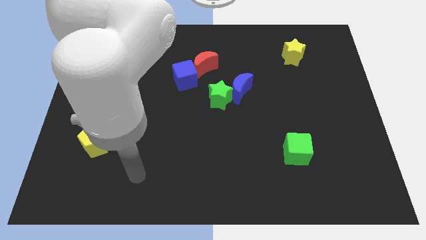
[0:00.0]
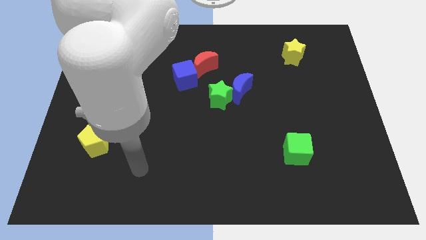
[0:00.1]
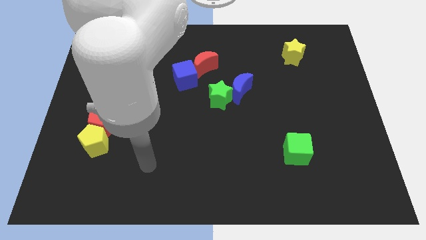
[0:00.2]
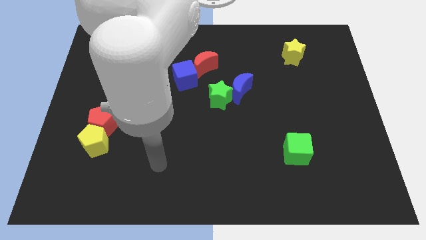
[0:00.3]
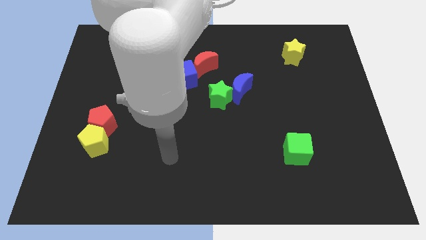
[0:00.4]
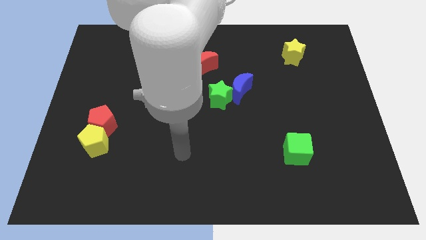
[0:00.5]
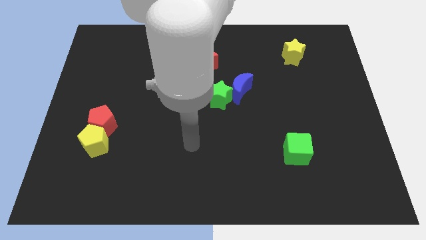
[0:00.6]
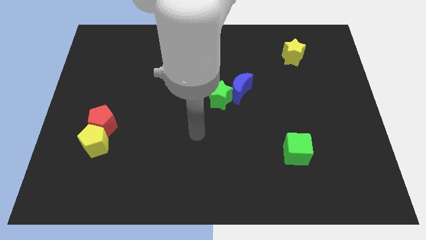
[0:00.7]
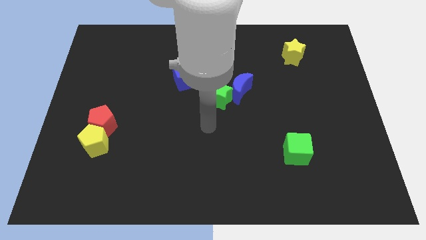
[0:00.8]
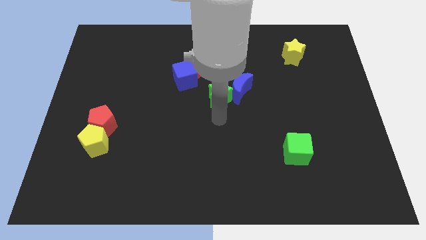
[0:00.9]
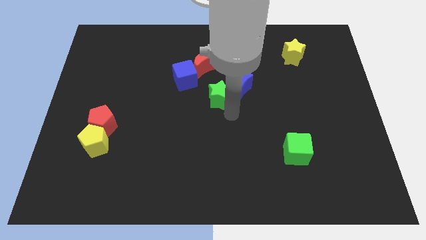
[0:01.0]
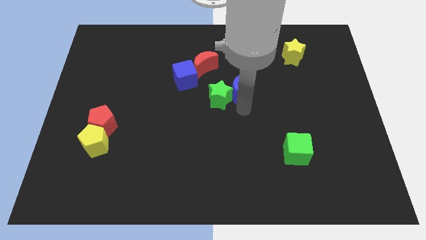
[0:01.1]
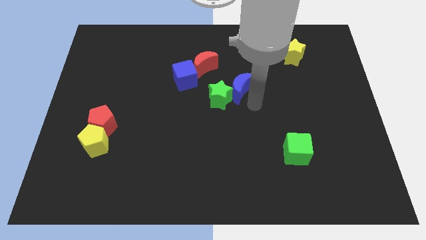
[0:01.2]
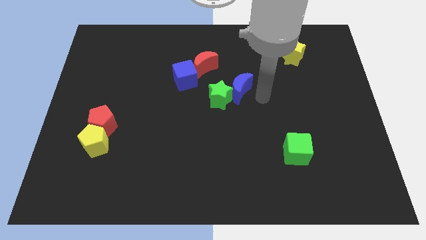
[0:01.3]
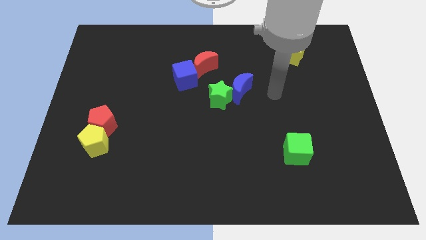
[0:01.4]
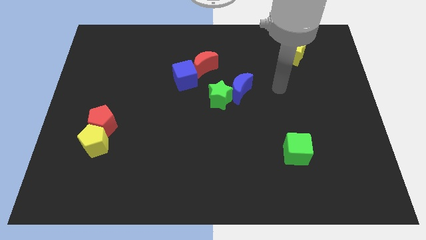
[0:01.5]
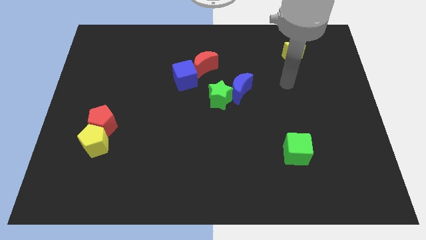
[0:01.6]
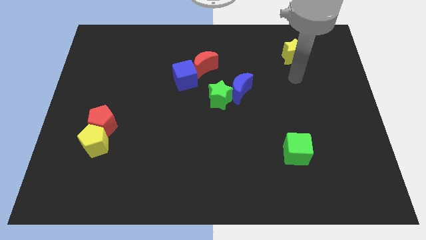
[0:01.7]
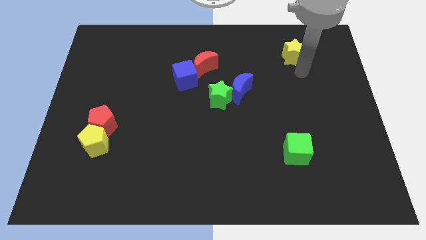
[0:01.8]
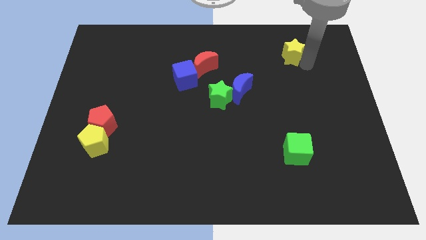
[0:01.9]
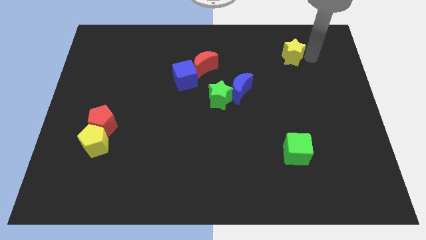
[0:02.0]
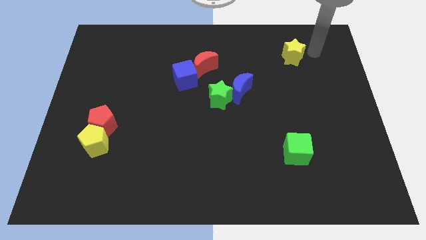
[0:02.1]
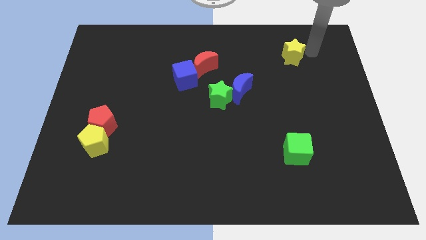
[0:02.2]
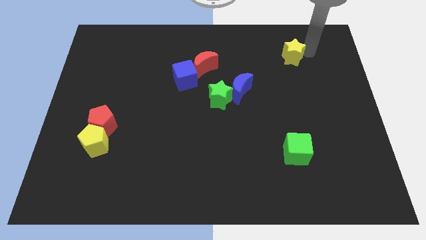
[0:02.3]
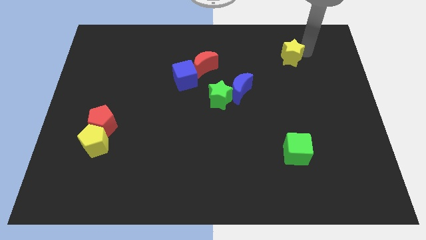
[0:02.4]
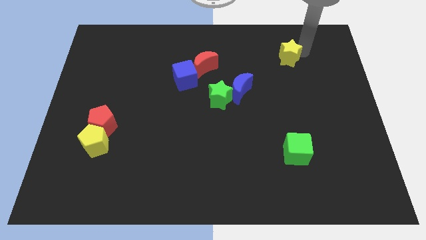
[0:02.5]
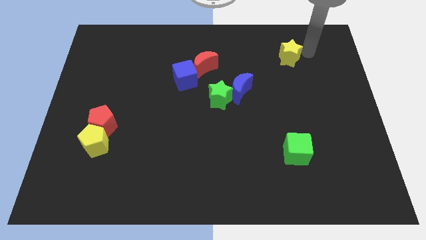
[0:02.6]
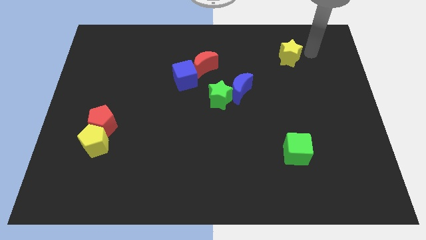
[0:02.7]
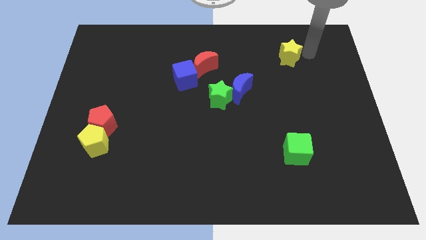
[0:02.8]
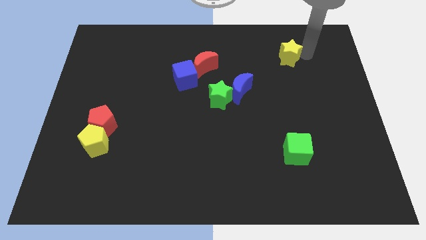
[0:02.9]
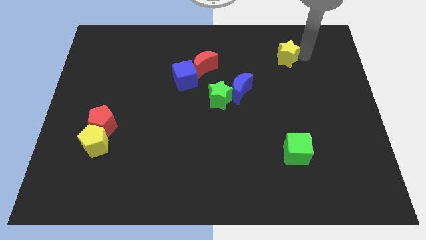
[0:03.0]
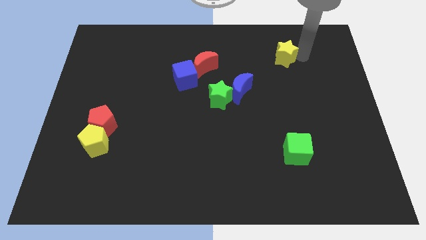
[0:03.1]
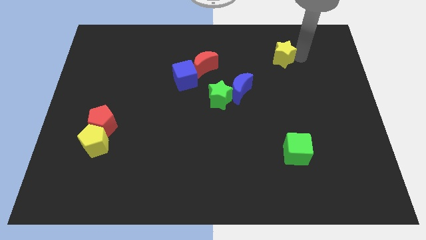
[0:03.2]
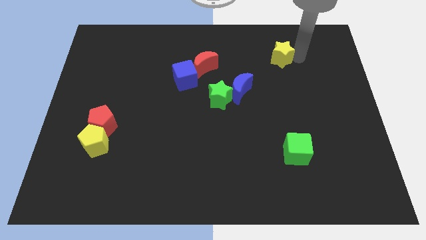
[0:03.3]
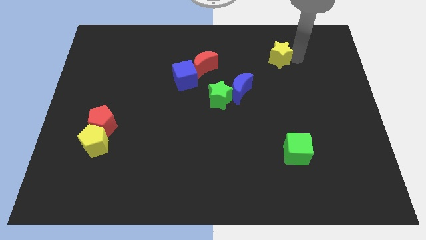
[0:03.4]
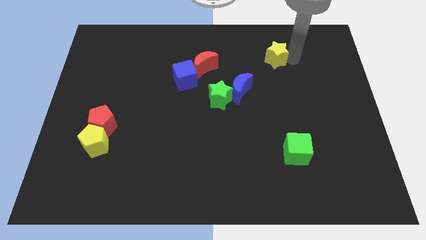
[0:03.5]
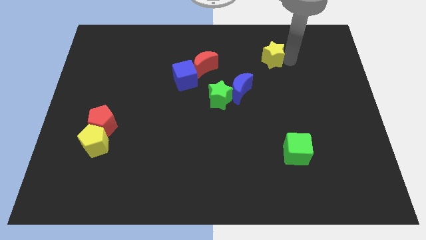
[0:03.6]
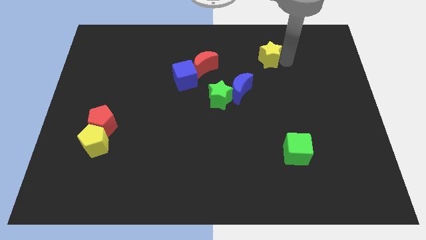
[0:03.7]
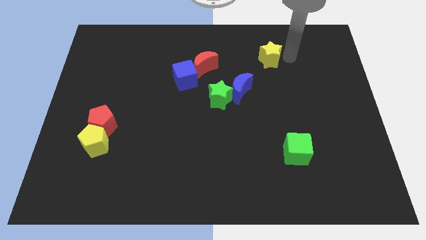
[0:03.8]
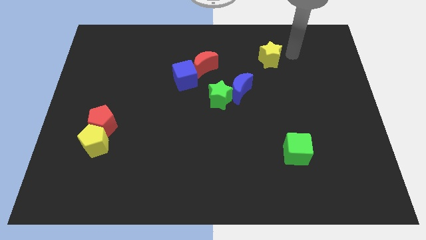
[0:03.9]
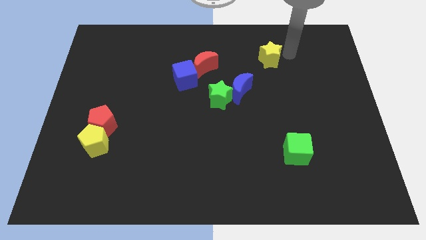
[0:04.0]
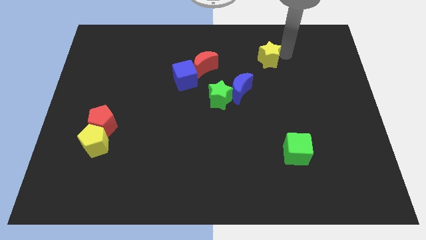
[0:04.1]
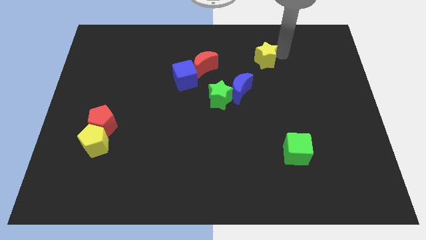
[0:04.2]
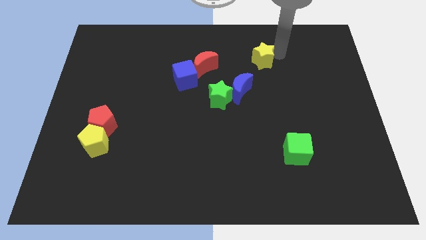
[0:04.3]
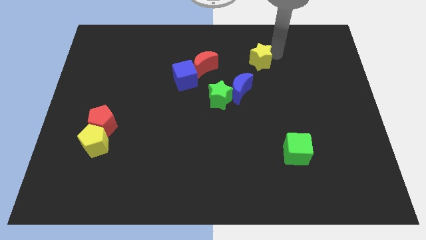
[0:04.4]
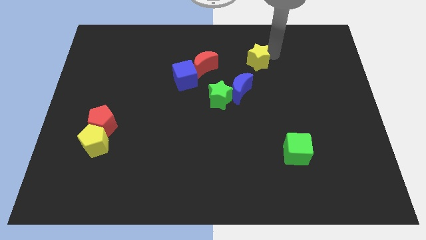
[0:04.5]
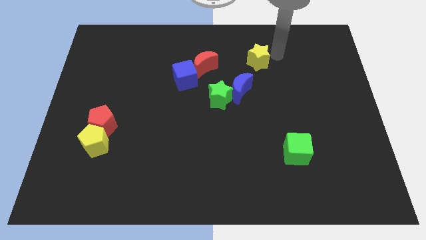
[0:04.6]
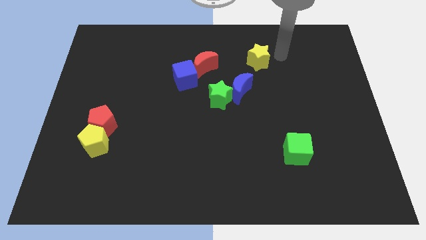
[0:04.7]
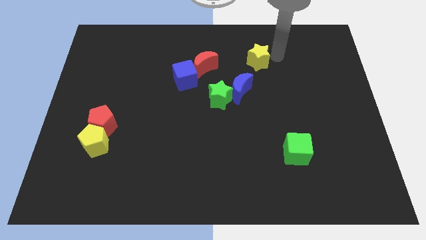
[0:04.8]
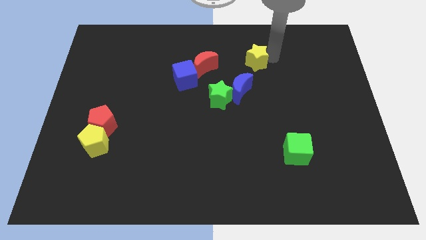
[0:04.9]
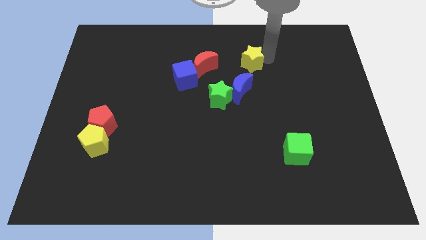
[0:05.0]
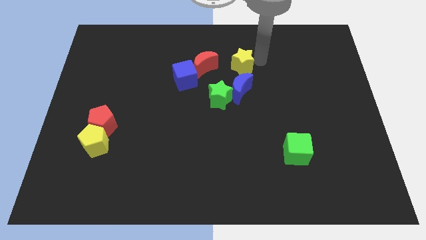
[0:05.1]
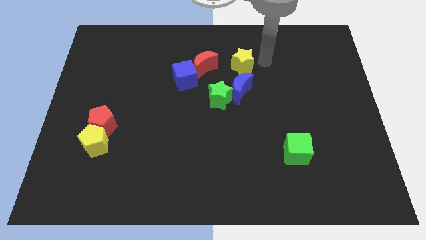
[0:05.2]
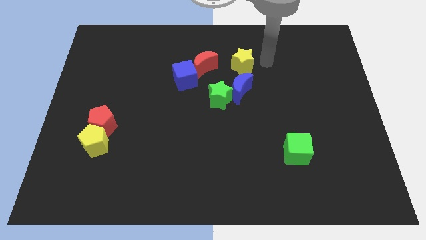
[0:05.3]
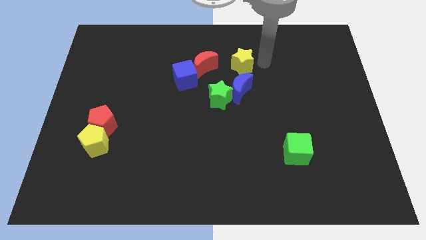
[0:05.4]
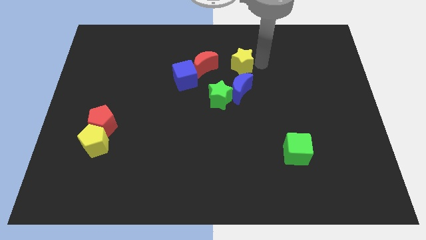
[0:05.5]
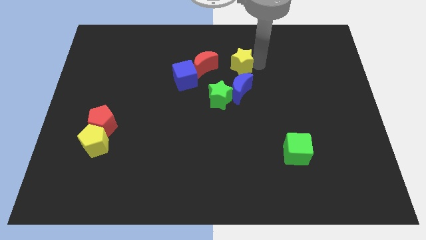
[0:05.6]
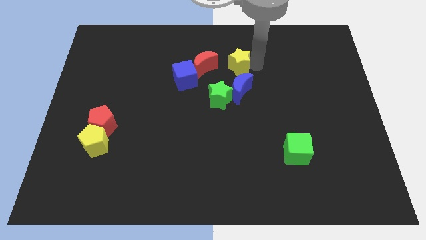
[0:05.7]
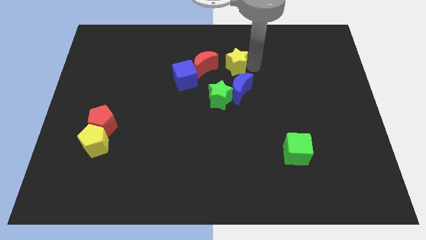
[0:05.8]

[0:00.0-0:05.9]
slide the yellow star to the top of the green star

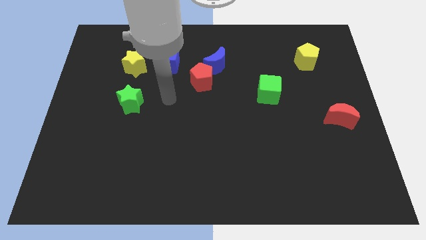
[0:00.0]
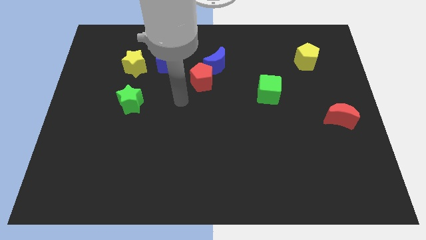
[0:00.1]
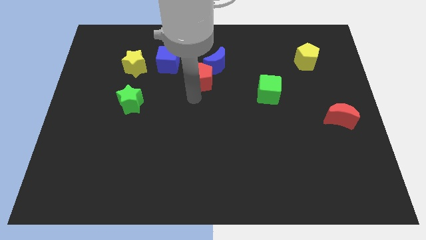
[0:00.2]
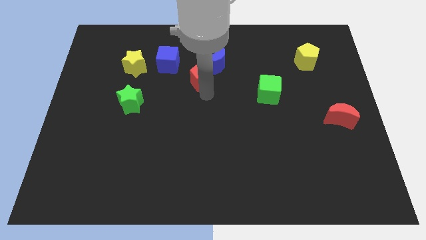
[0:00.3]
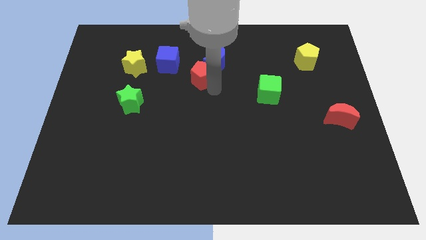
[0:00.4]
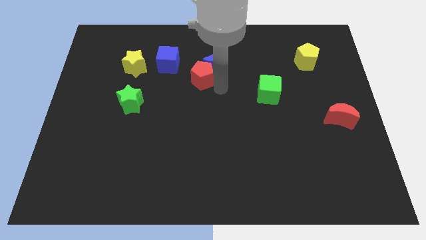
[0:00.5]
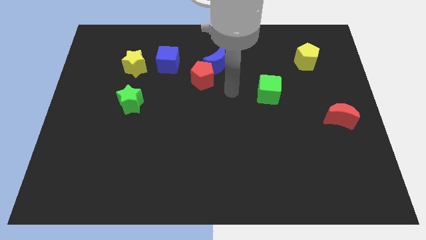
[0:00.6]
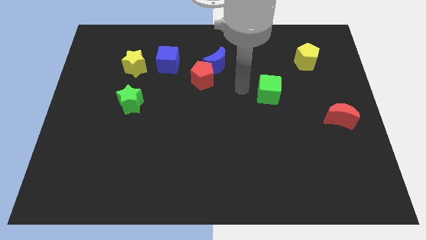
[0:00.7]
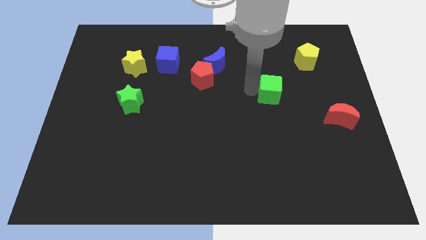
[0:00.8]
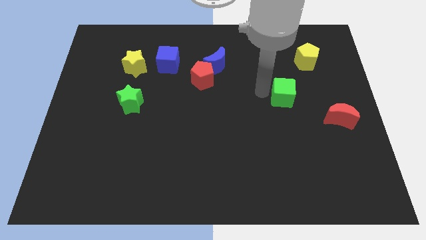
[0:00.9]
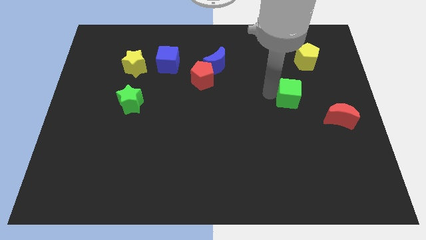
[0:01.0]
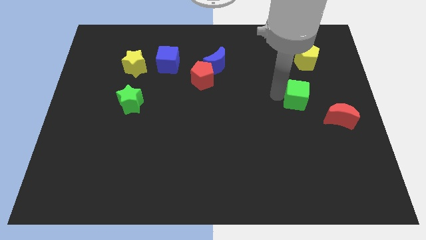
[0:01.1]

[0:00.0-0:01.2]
push the green cube diagonally up and to the left of the red moon
